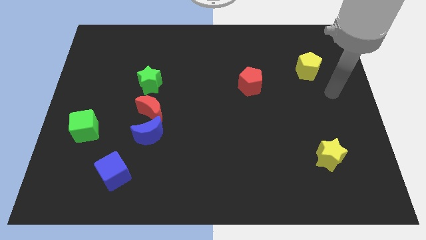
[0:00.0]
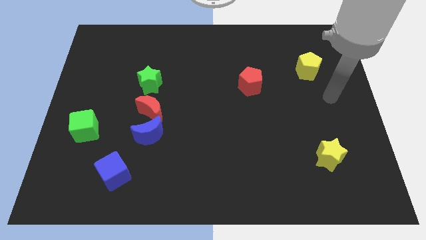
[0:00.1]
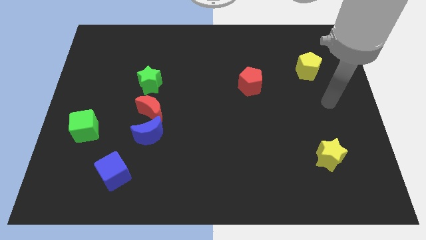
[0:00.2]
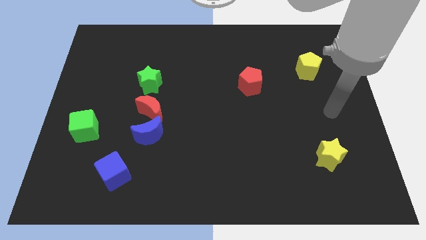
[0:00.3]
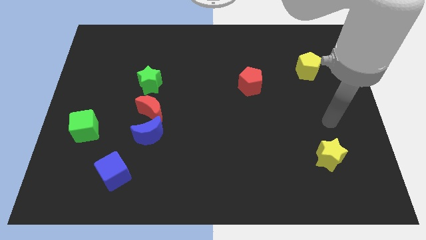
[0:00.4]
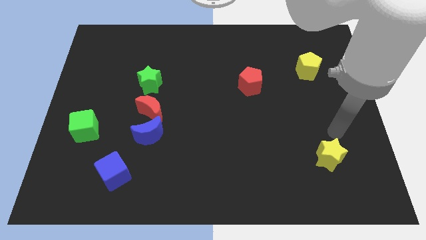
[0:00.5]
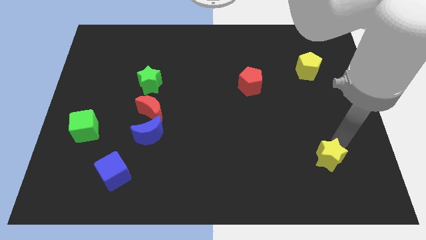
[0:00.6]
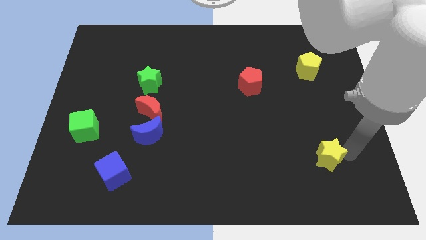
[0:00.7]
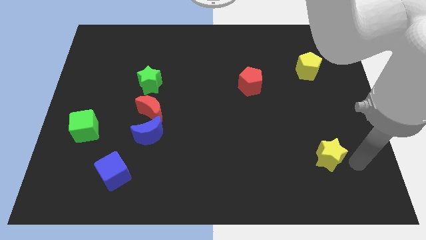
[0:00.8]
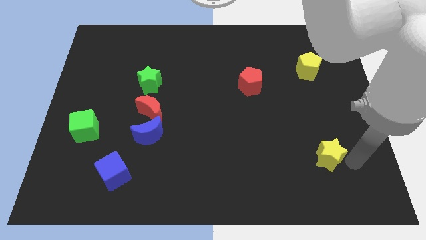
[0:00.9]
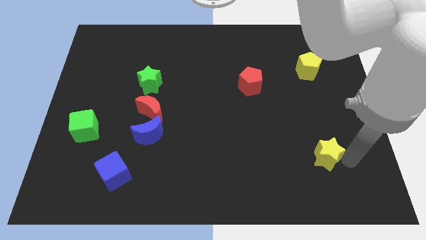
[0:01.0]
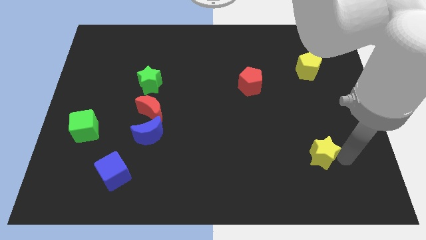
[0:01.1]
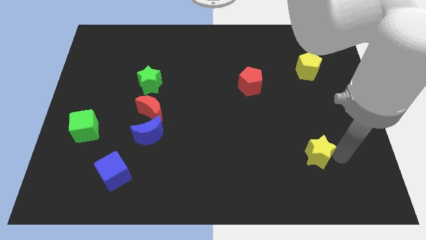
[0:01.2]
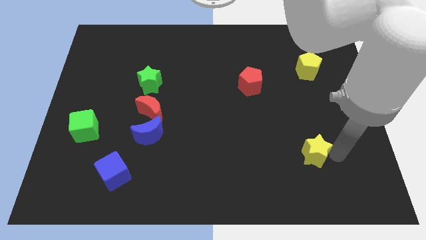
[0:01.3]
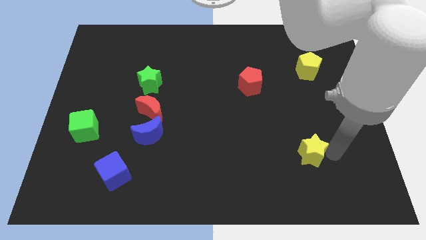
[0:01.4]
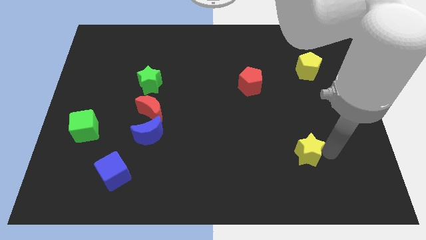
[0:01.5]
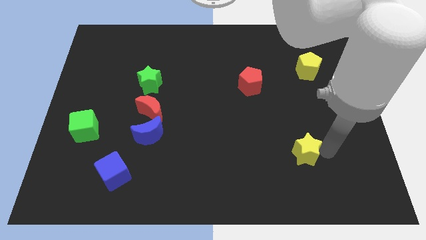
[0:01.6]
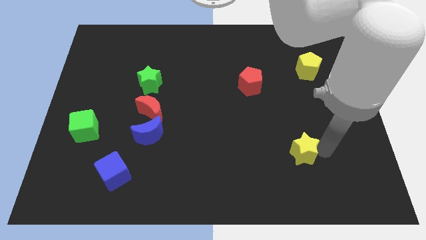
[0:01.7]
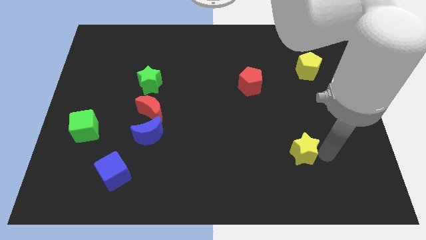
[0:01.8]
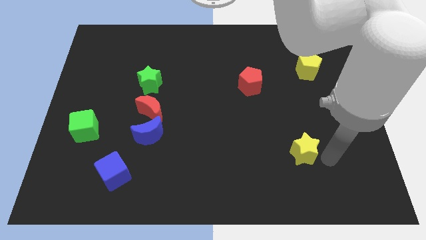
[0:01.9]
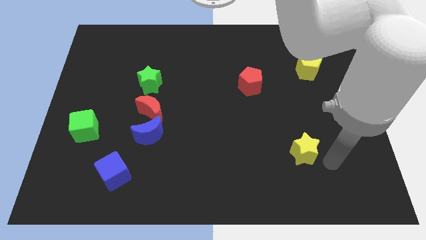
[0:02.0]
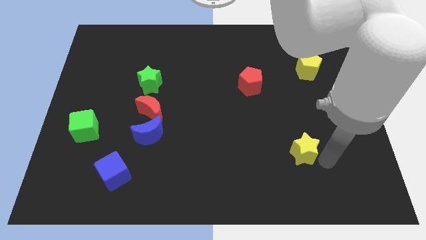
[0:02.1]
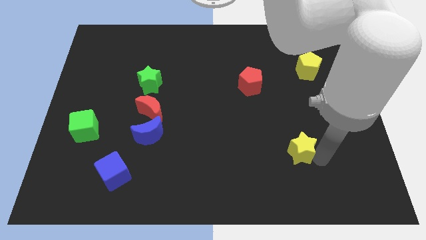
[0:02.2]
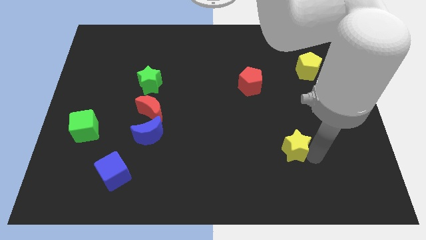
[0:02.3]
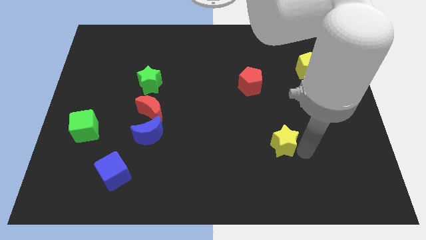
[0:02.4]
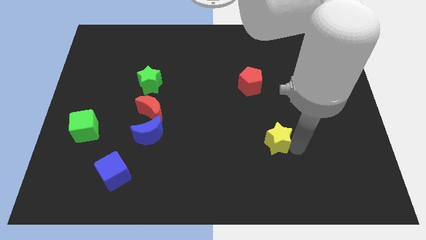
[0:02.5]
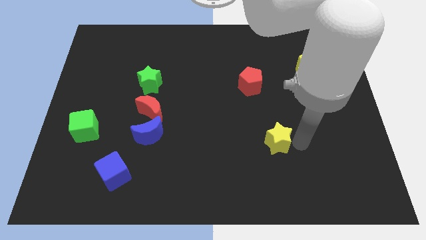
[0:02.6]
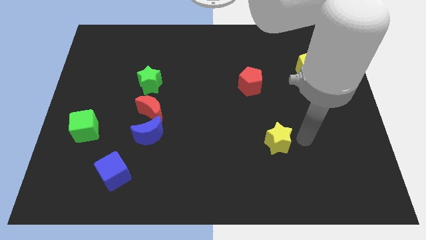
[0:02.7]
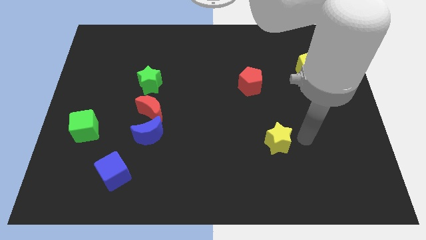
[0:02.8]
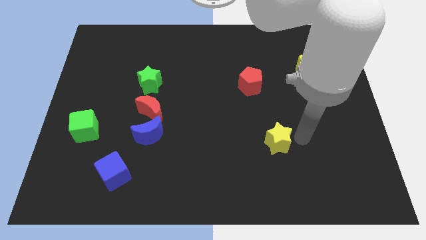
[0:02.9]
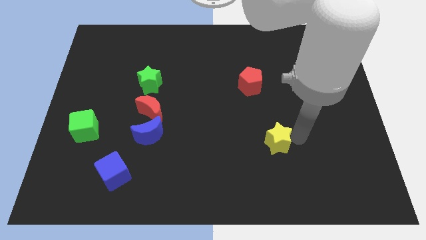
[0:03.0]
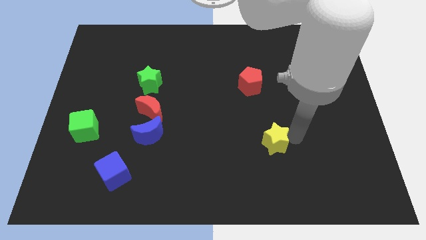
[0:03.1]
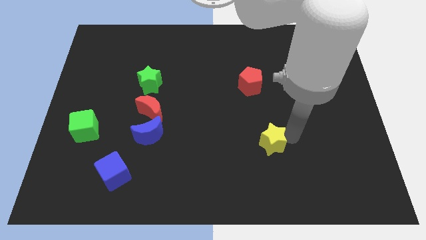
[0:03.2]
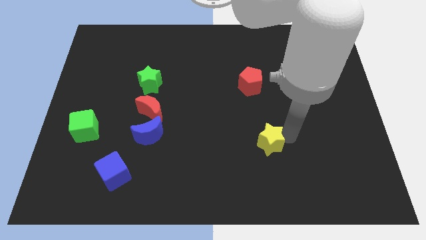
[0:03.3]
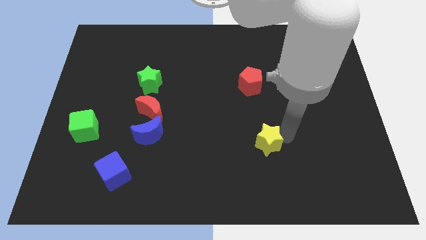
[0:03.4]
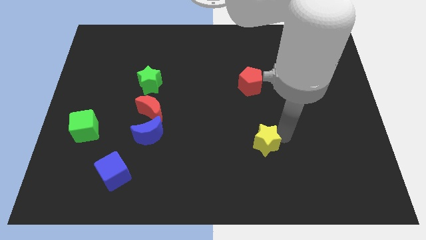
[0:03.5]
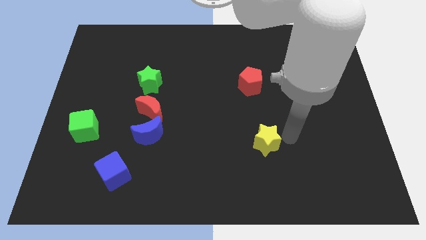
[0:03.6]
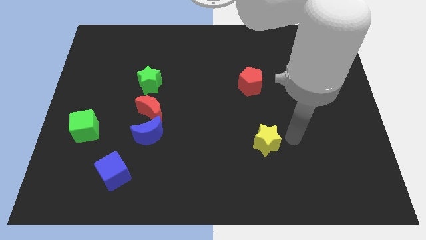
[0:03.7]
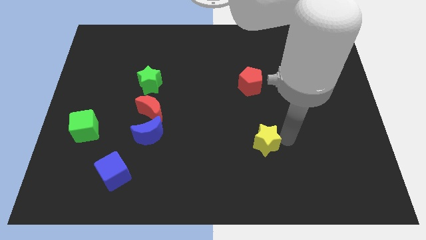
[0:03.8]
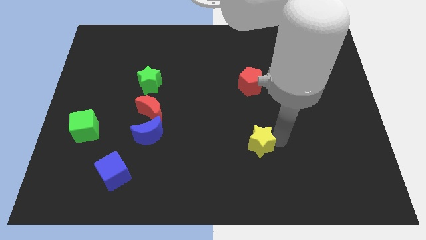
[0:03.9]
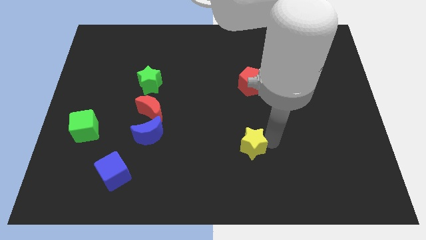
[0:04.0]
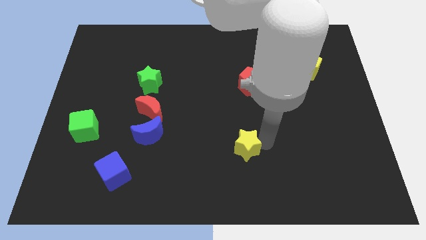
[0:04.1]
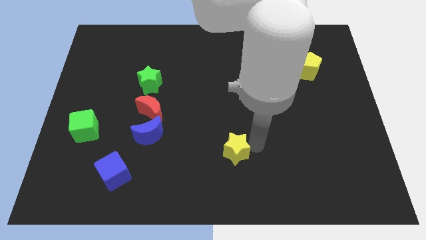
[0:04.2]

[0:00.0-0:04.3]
push the yellow star left

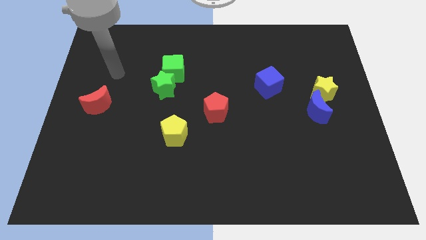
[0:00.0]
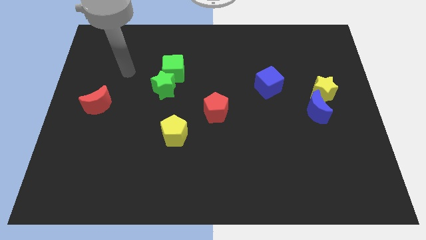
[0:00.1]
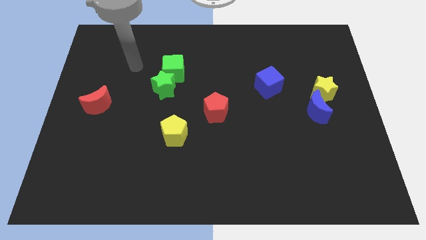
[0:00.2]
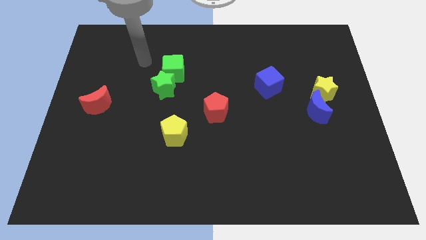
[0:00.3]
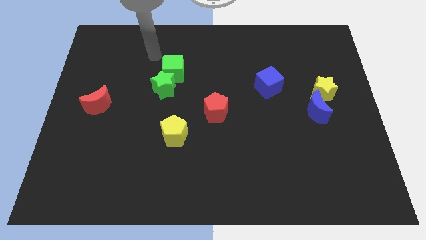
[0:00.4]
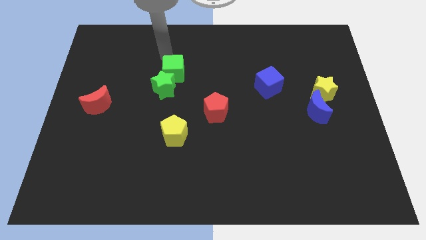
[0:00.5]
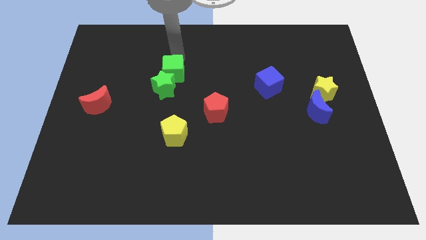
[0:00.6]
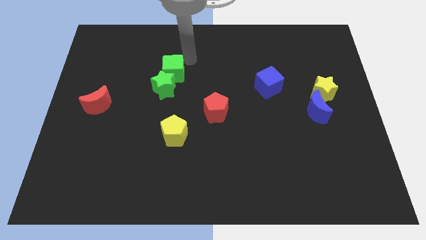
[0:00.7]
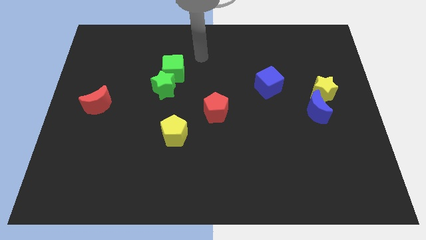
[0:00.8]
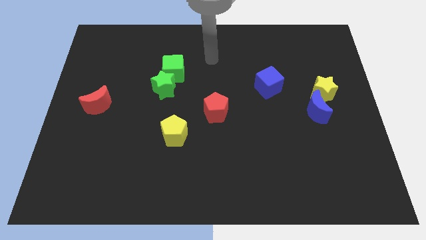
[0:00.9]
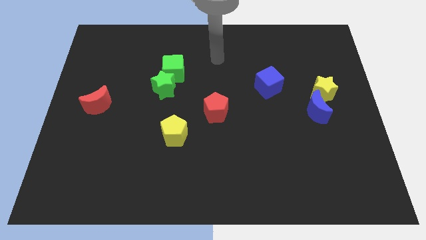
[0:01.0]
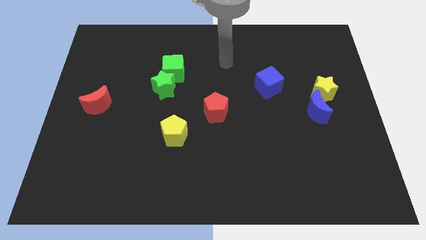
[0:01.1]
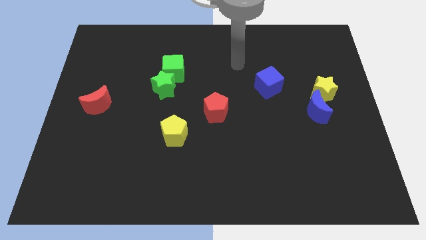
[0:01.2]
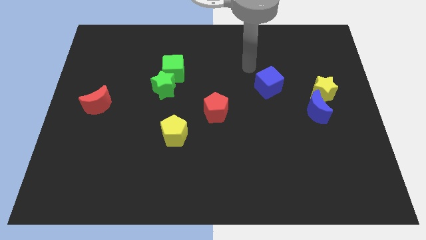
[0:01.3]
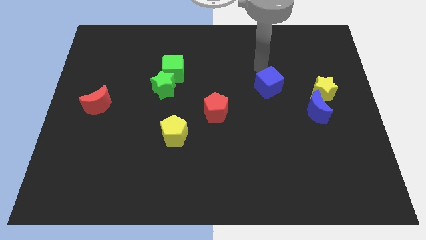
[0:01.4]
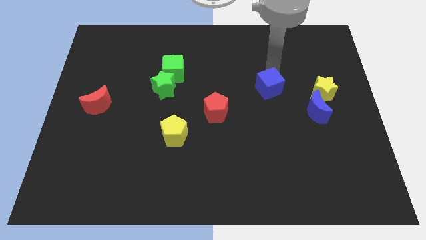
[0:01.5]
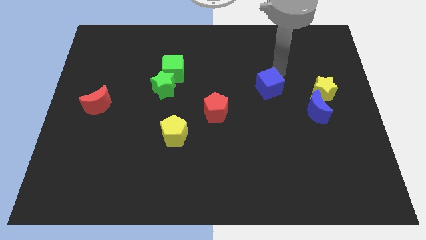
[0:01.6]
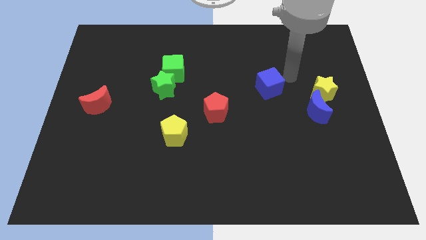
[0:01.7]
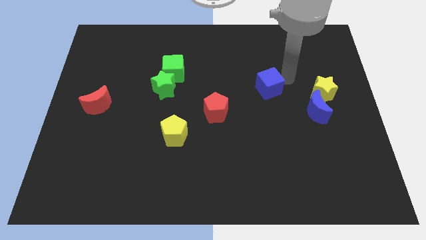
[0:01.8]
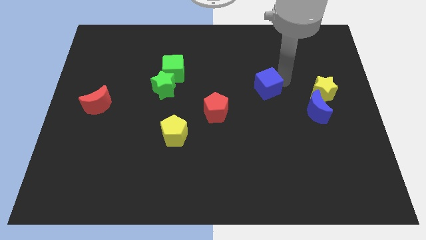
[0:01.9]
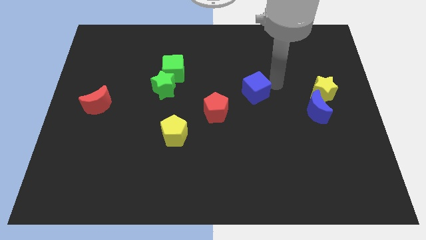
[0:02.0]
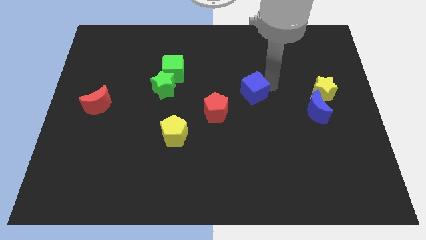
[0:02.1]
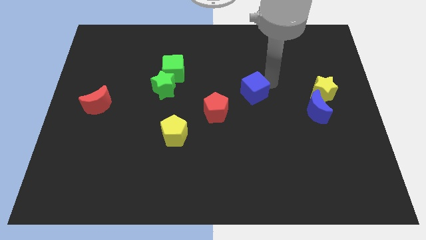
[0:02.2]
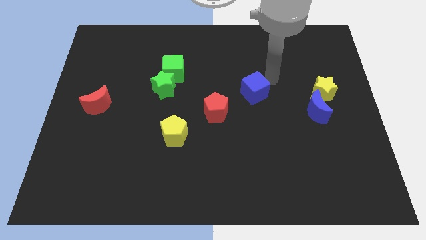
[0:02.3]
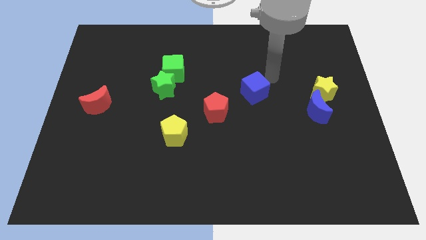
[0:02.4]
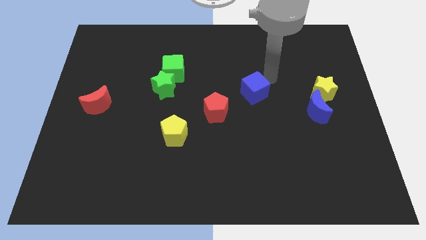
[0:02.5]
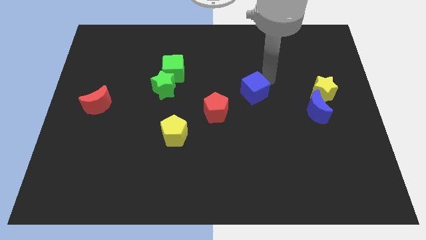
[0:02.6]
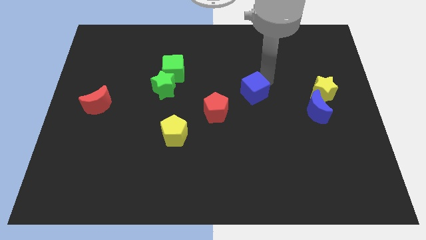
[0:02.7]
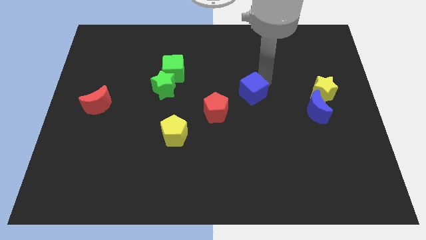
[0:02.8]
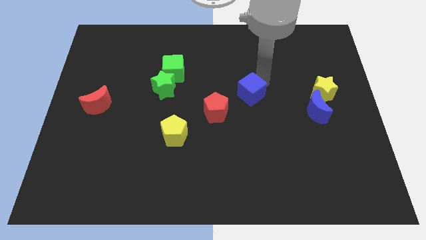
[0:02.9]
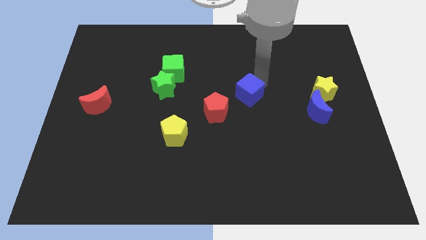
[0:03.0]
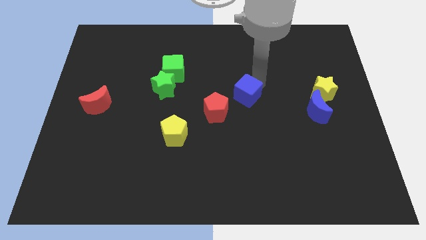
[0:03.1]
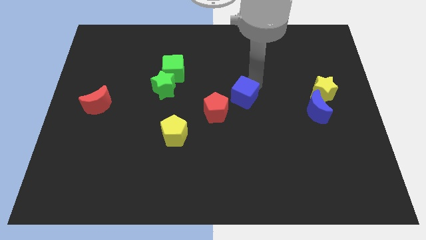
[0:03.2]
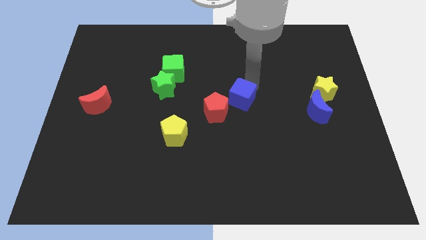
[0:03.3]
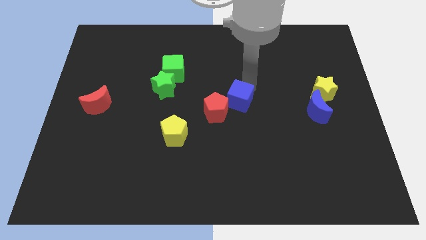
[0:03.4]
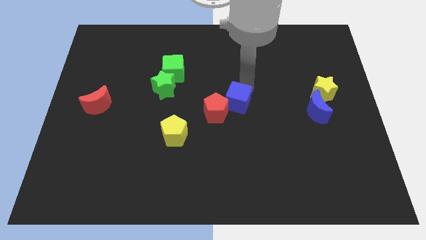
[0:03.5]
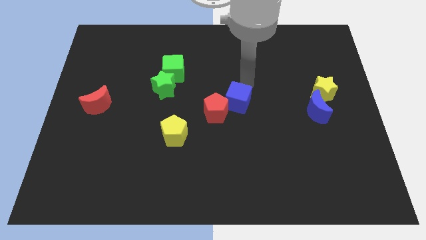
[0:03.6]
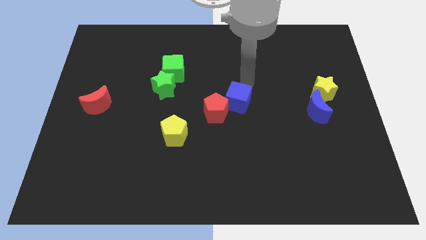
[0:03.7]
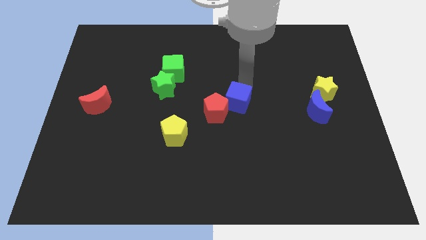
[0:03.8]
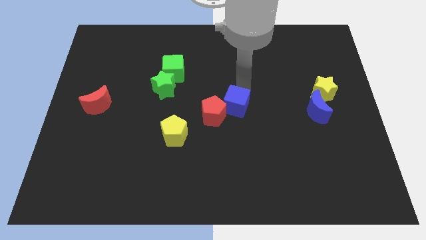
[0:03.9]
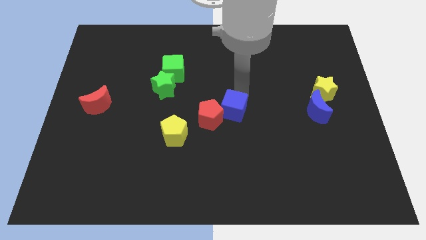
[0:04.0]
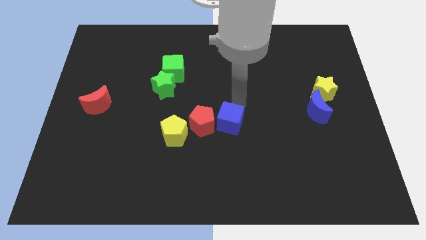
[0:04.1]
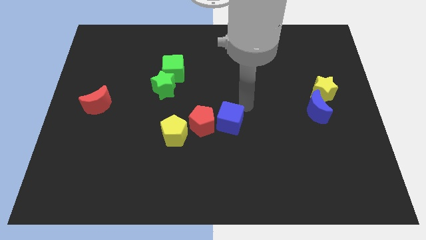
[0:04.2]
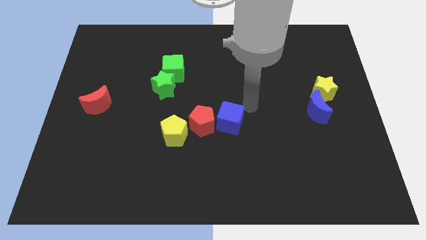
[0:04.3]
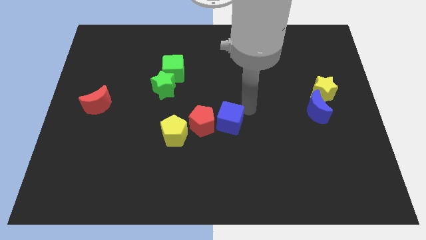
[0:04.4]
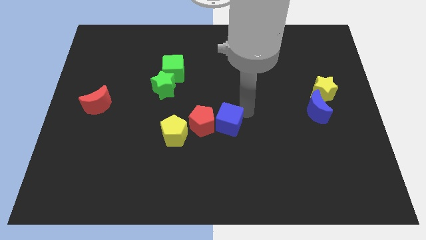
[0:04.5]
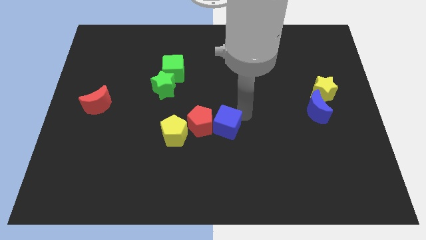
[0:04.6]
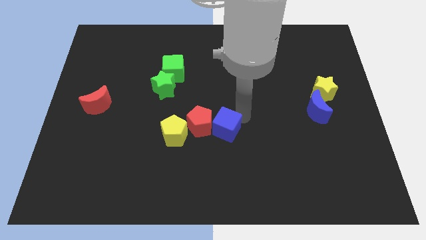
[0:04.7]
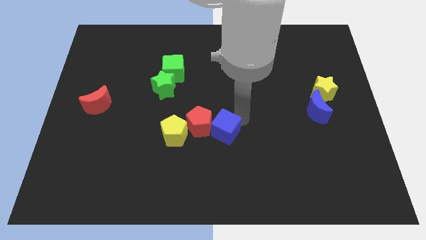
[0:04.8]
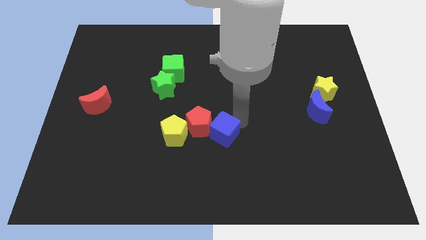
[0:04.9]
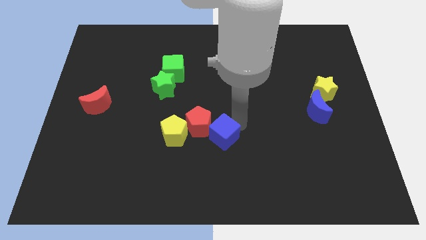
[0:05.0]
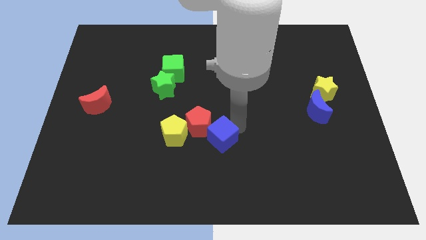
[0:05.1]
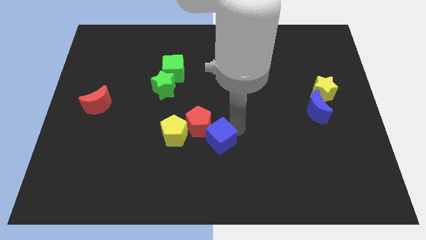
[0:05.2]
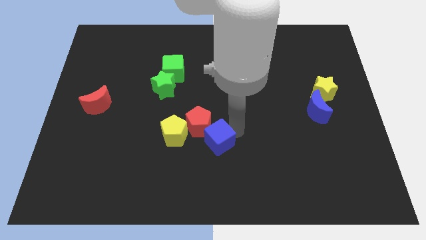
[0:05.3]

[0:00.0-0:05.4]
slide the blue cube diagonally down and left
